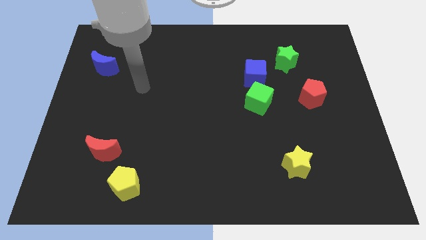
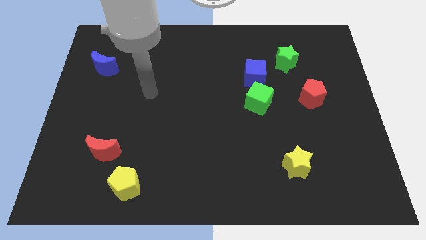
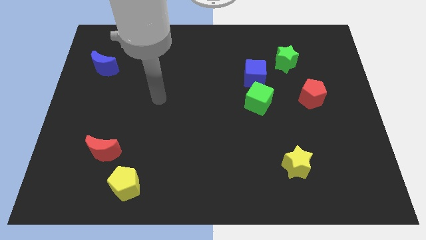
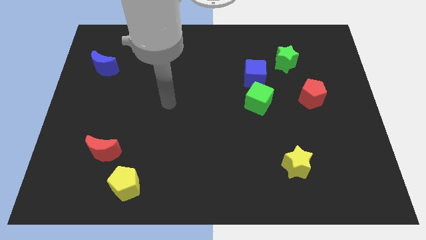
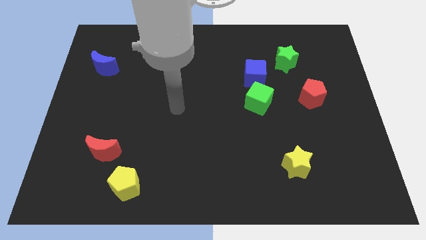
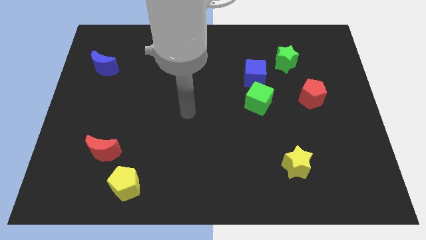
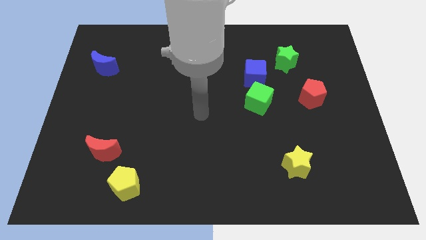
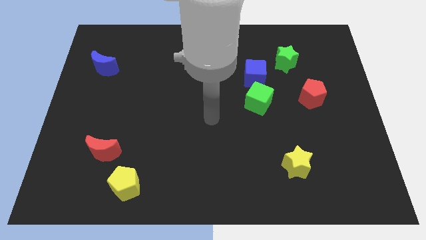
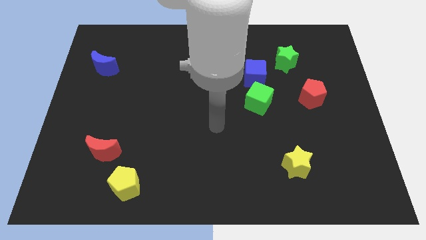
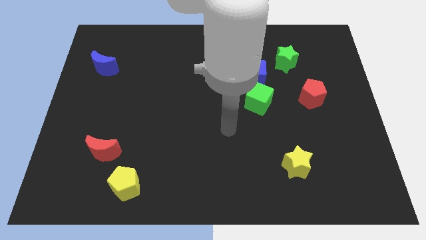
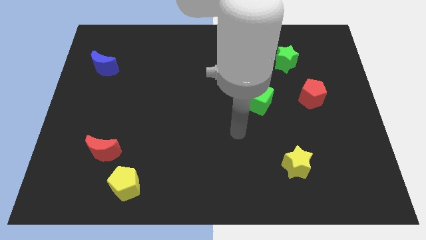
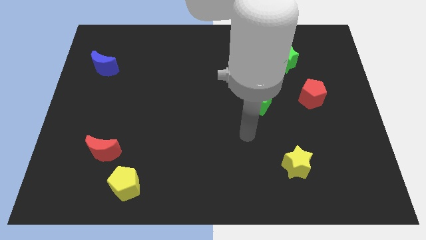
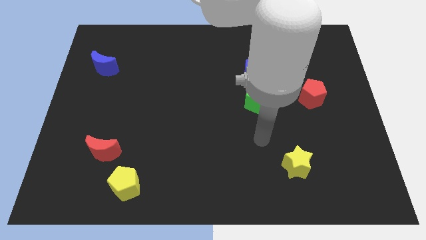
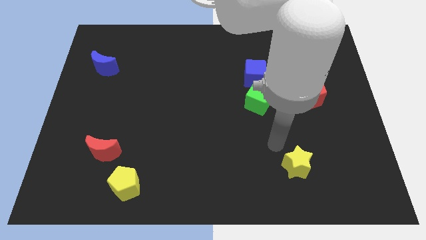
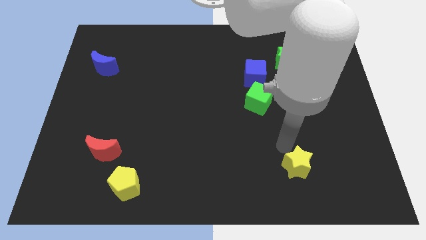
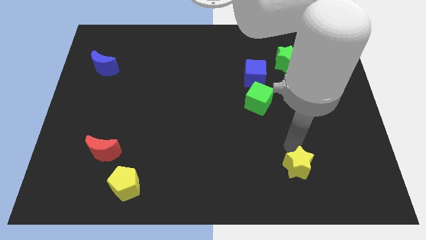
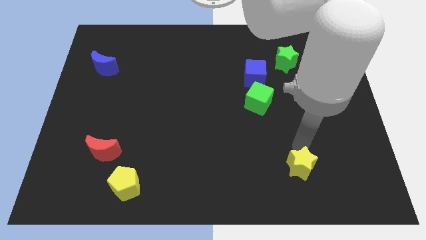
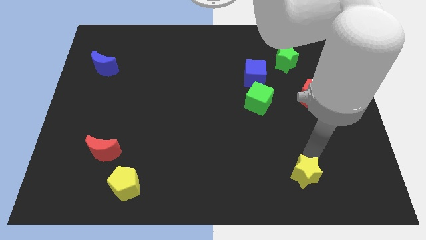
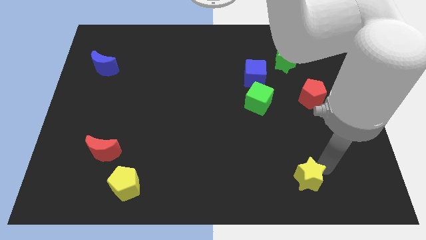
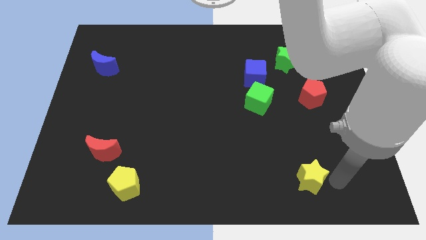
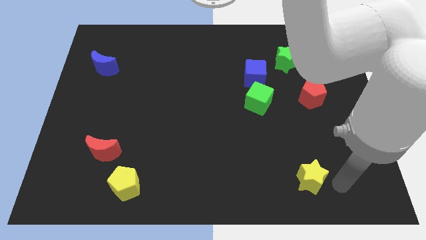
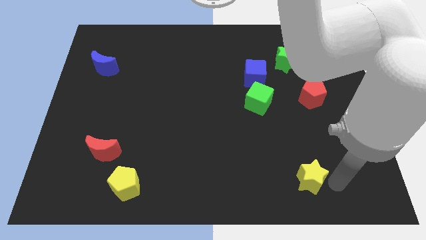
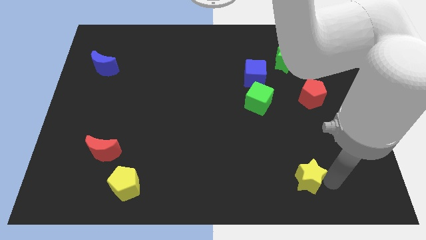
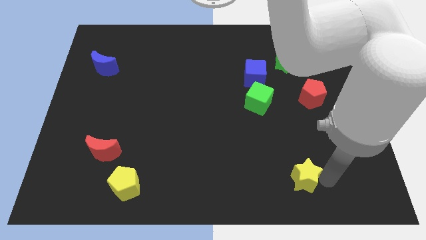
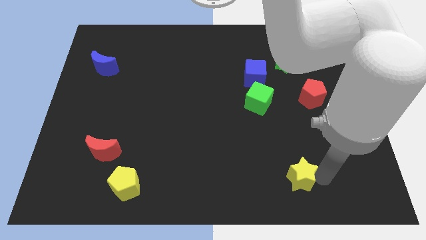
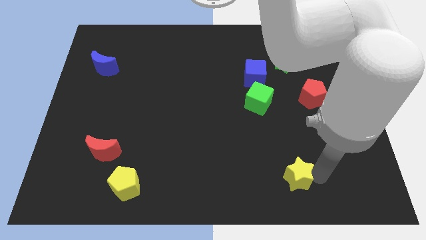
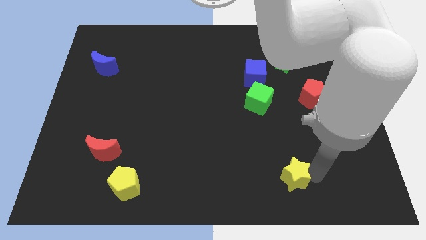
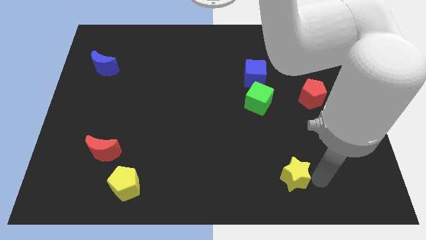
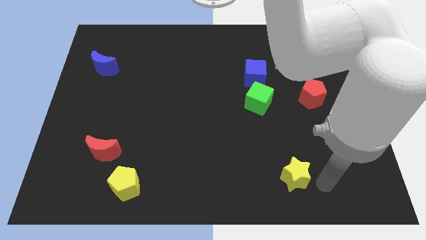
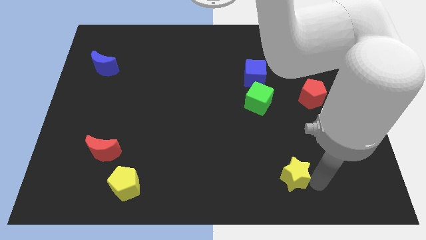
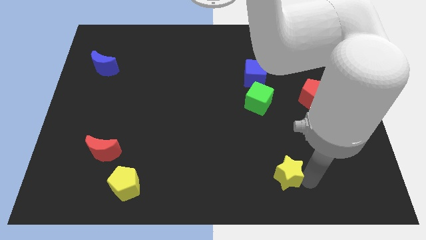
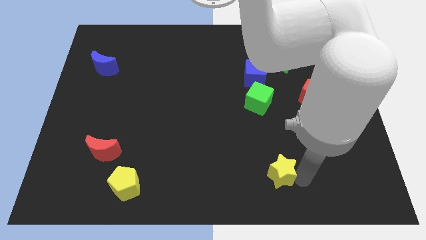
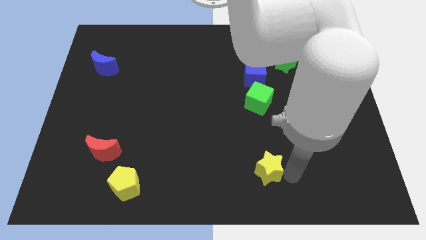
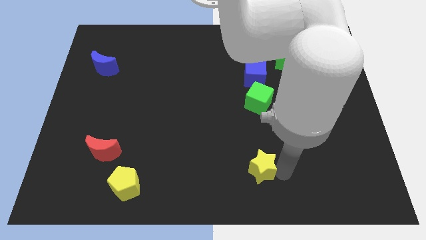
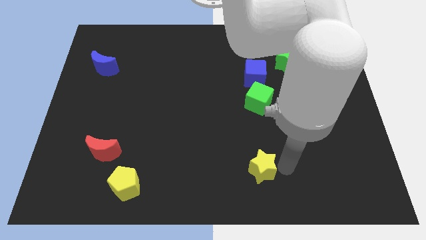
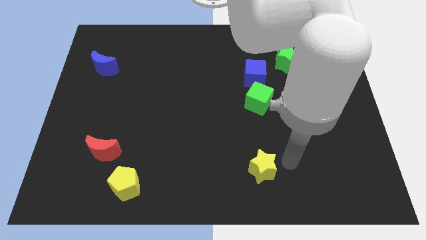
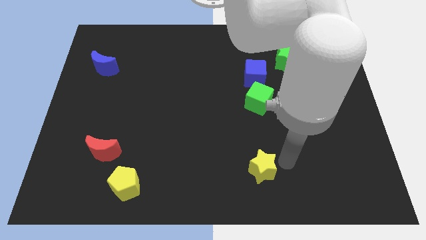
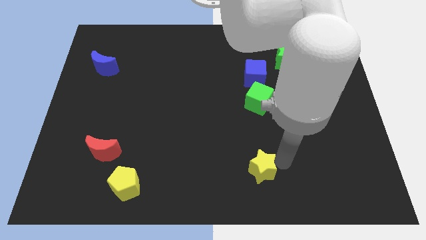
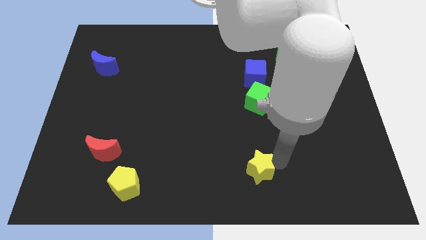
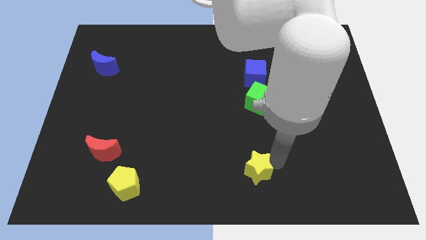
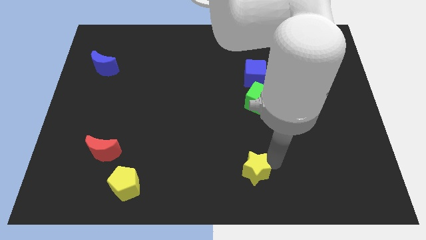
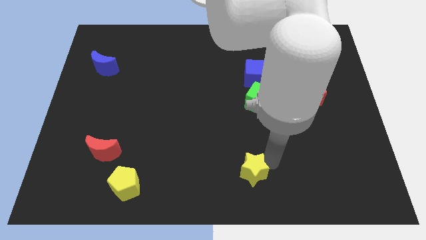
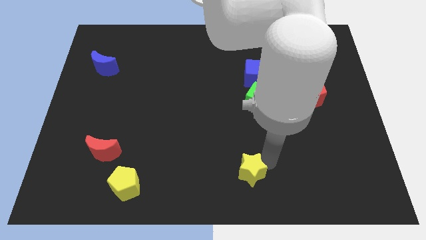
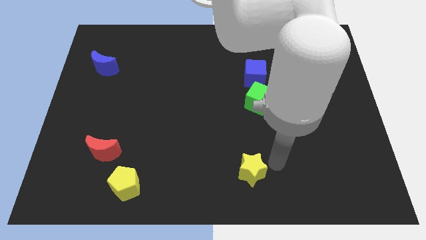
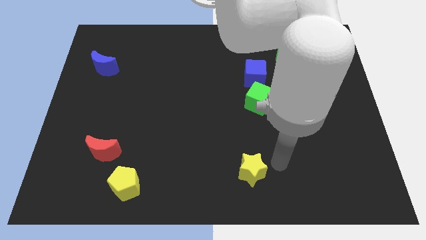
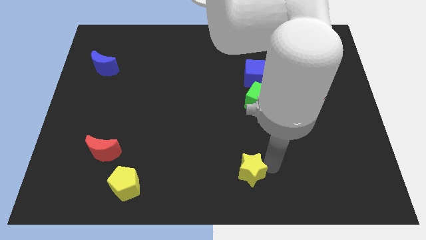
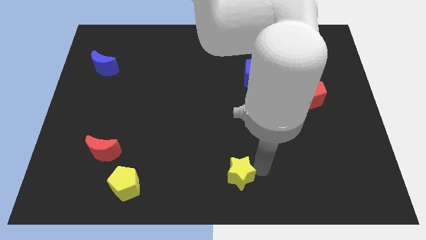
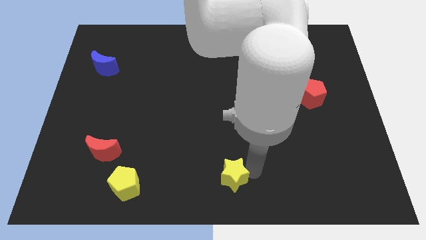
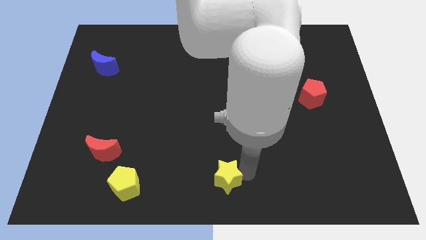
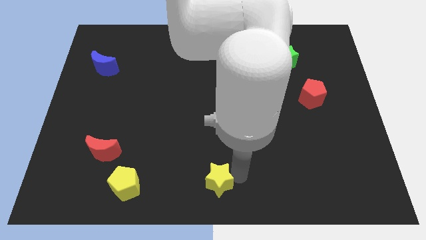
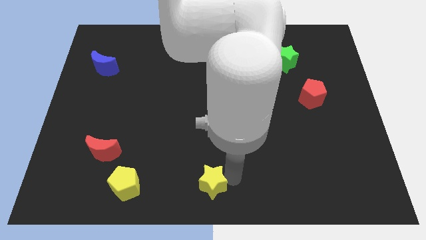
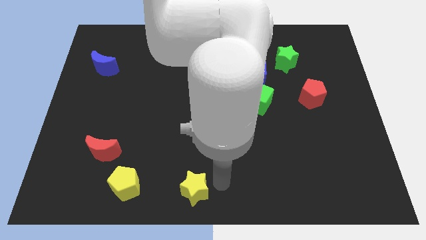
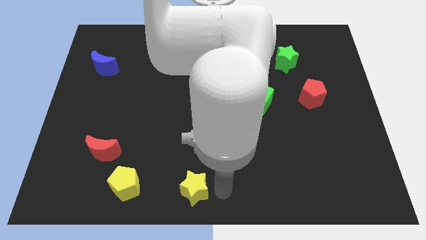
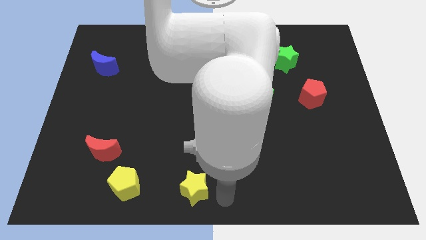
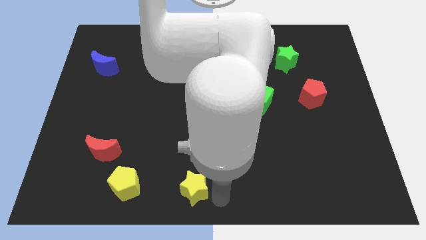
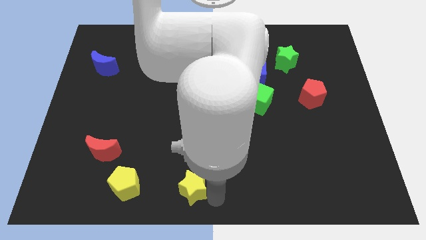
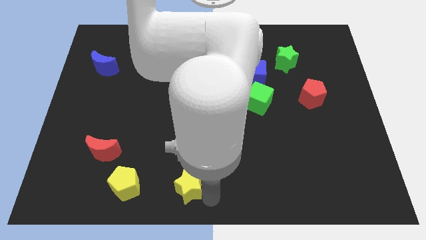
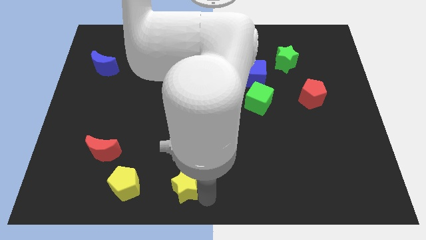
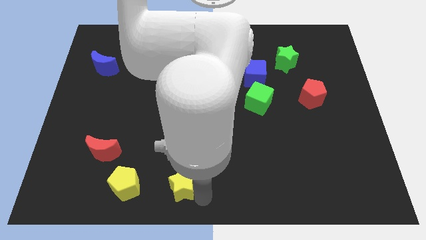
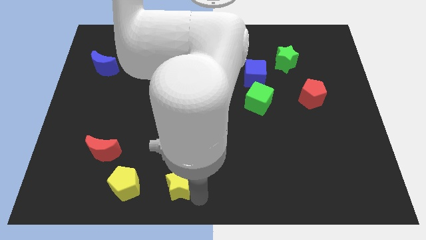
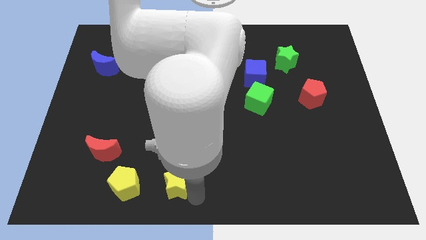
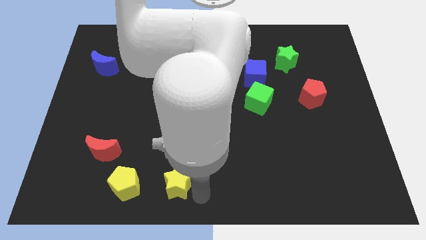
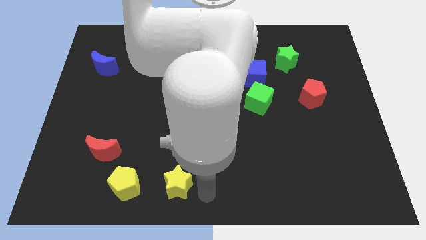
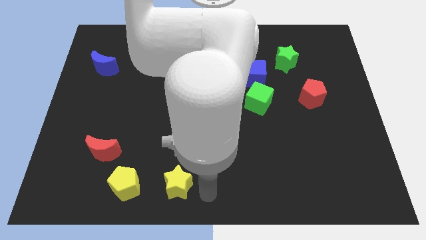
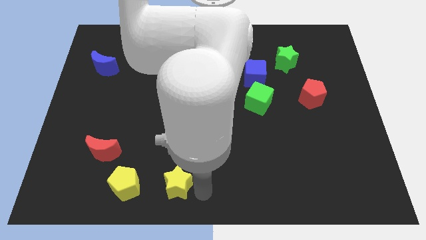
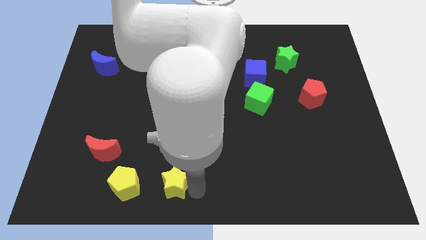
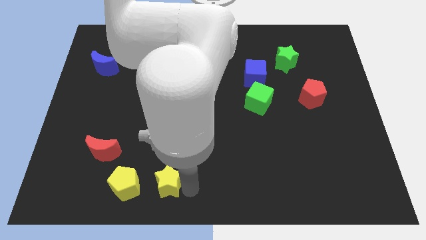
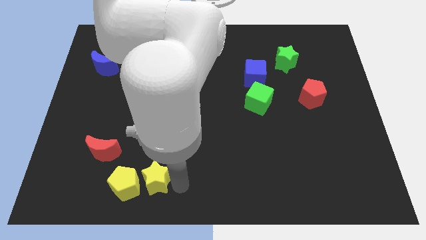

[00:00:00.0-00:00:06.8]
slide the yellow star close to the yellow pentagon

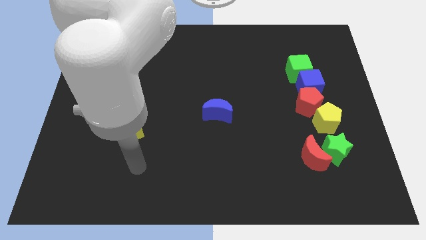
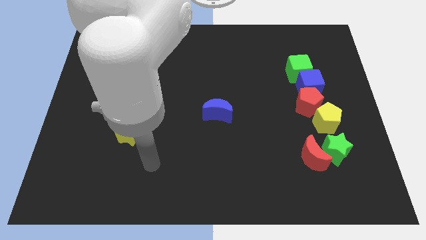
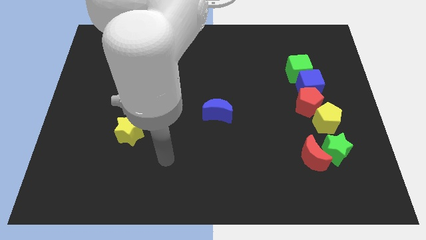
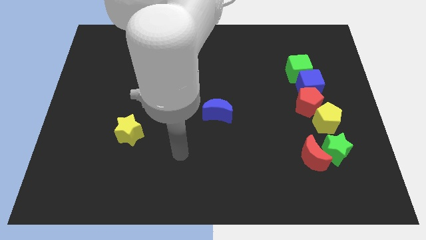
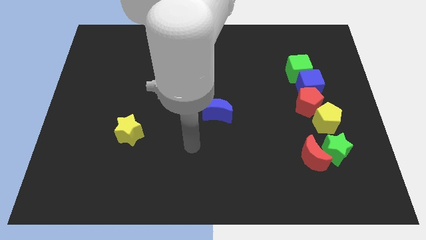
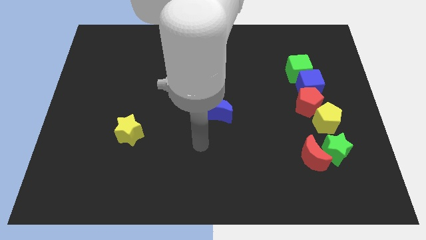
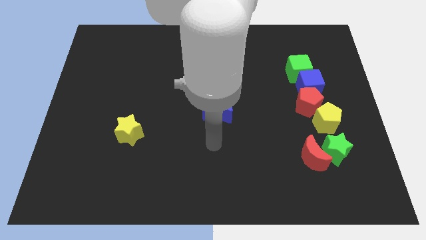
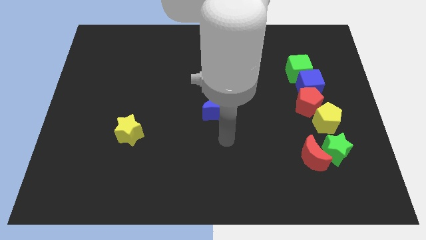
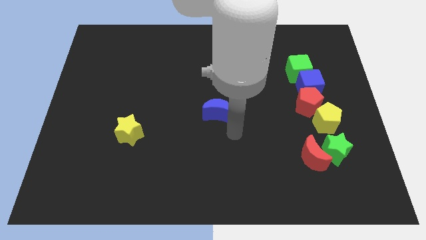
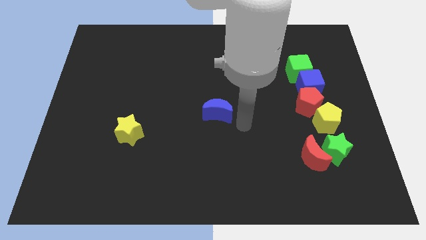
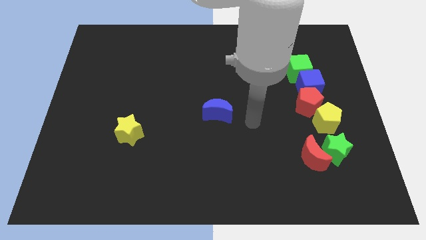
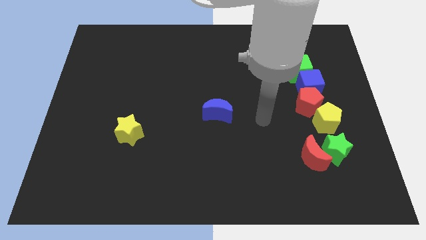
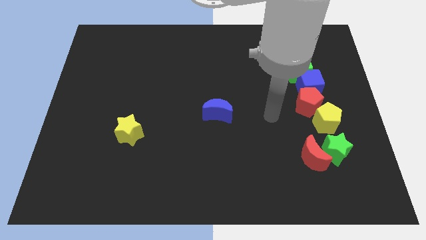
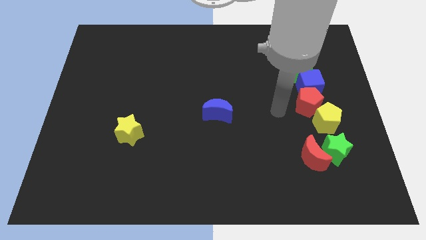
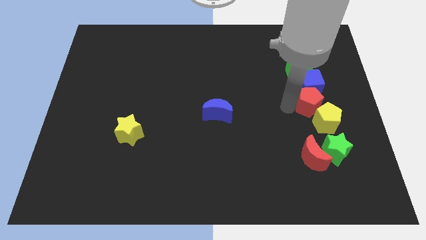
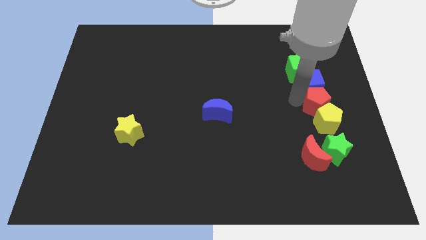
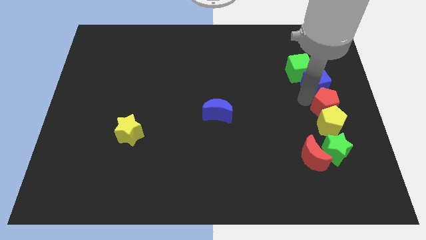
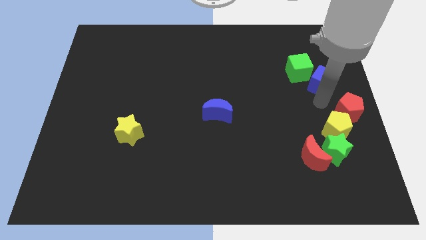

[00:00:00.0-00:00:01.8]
move the yellow pentagon next to the green star
